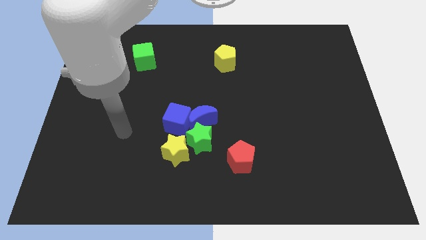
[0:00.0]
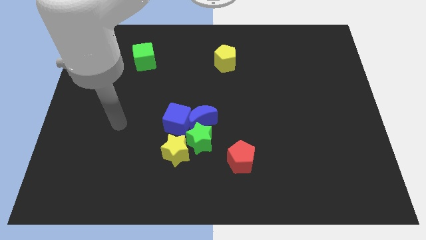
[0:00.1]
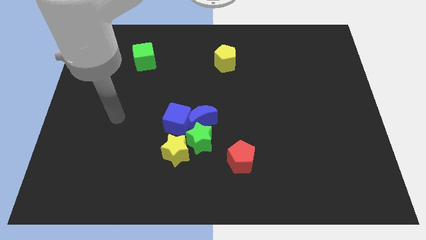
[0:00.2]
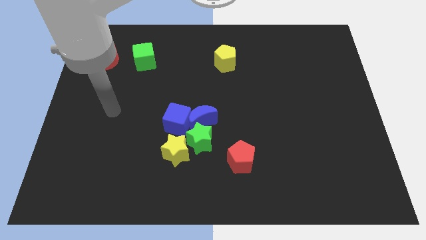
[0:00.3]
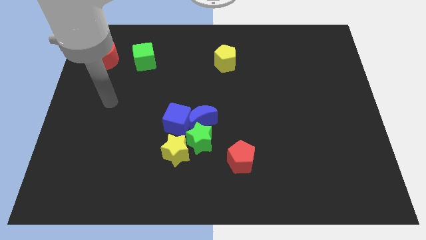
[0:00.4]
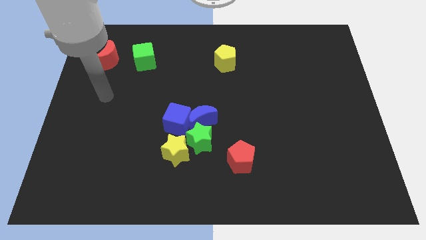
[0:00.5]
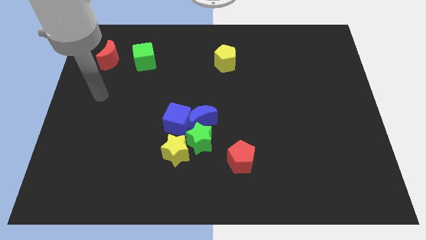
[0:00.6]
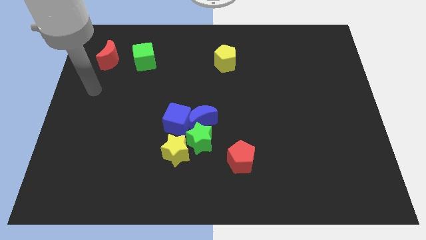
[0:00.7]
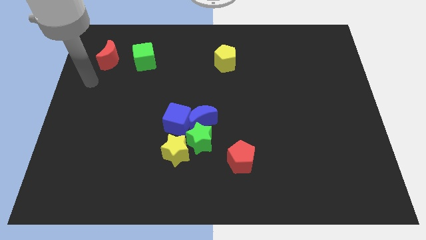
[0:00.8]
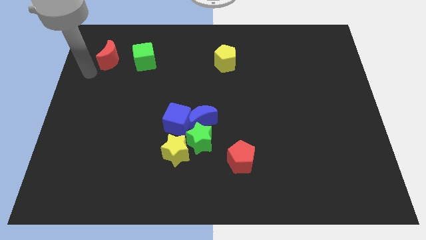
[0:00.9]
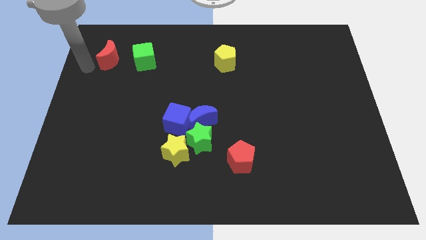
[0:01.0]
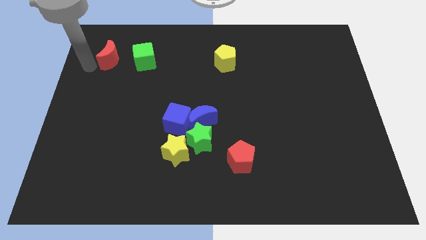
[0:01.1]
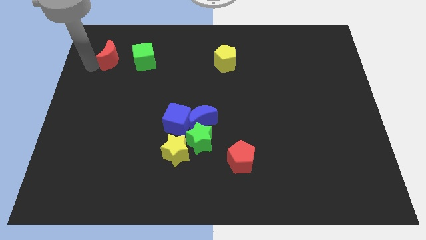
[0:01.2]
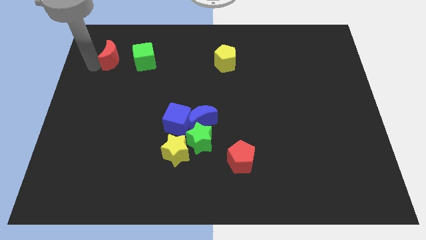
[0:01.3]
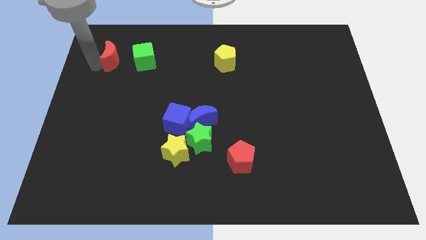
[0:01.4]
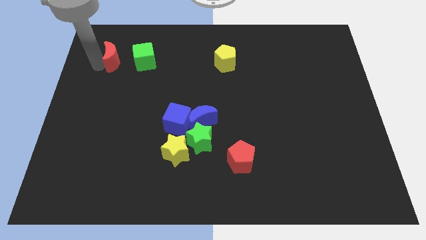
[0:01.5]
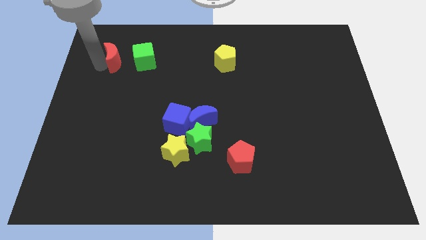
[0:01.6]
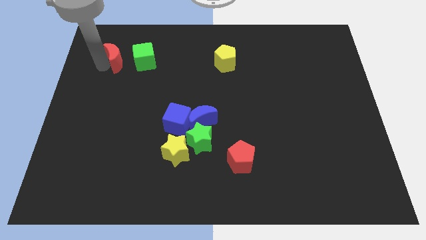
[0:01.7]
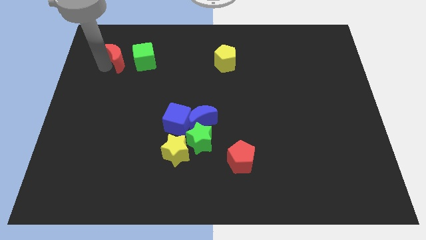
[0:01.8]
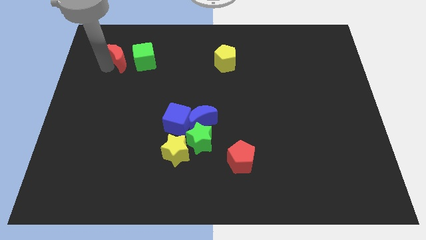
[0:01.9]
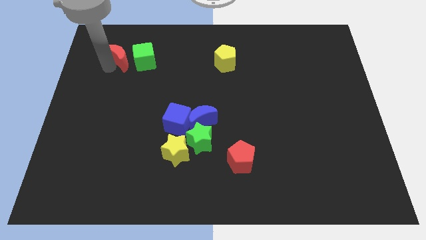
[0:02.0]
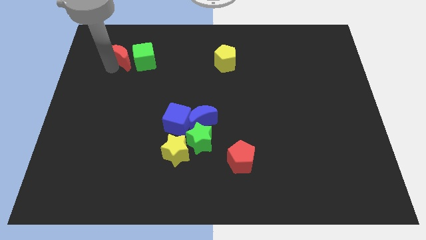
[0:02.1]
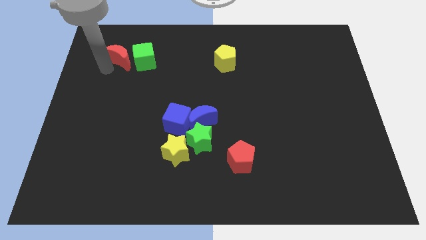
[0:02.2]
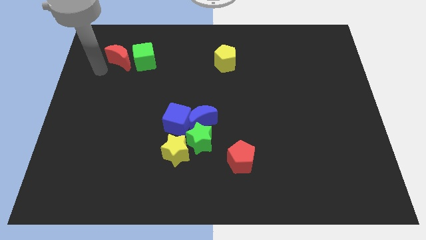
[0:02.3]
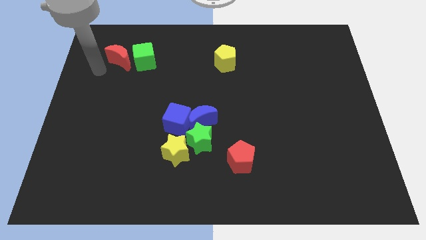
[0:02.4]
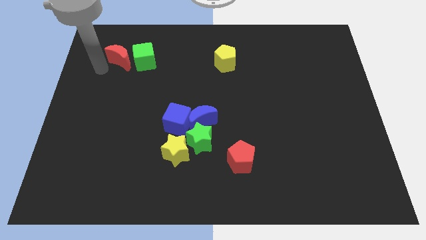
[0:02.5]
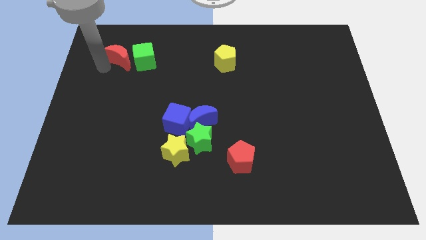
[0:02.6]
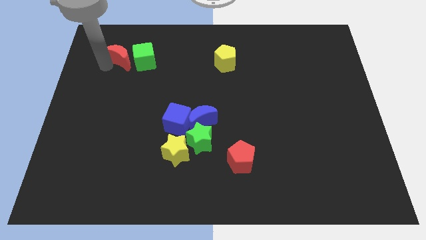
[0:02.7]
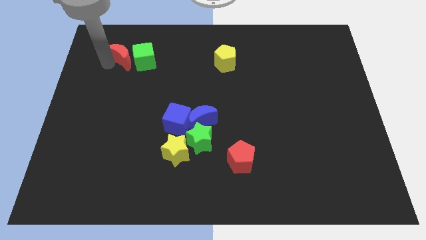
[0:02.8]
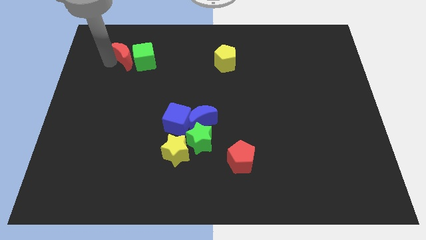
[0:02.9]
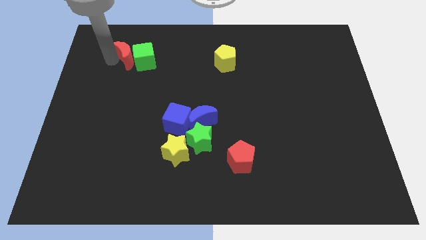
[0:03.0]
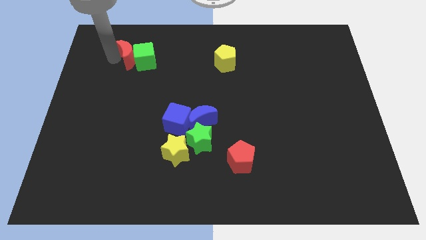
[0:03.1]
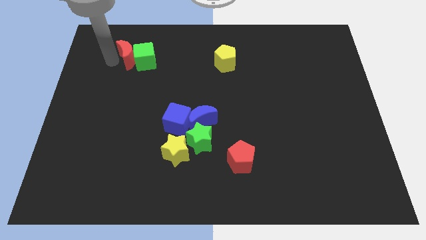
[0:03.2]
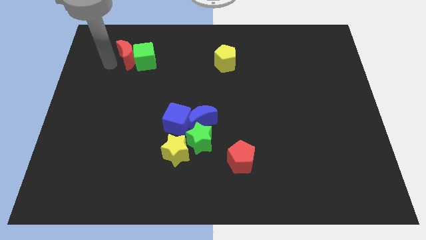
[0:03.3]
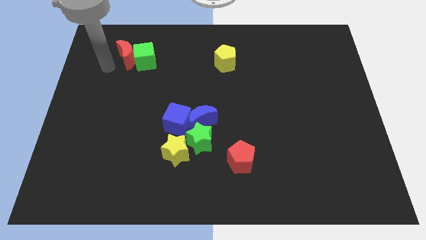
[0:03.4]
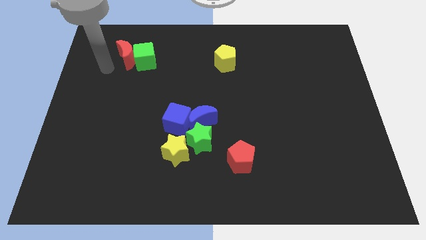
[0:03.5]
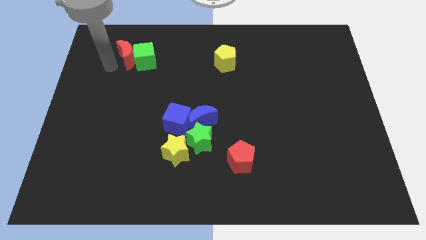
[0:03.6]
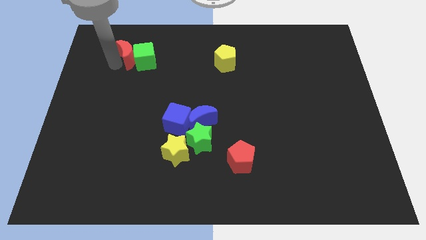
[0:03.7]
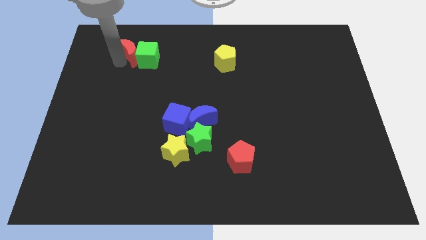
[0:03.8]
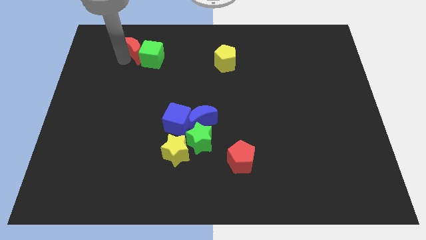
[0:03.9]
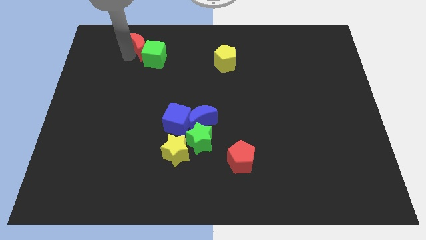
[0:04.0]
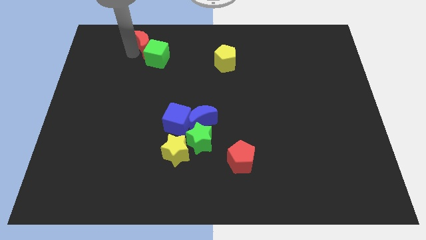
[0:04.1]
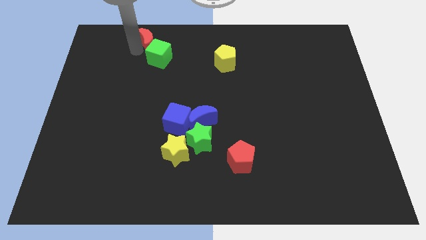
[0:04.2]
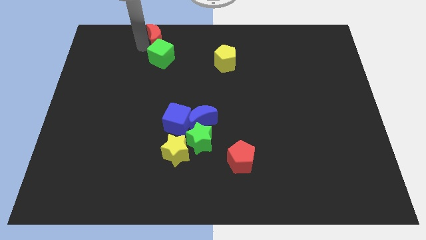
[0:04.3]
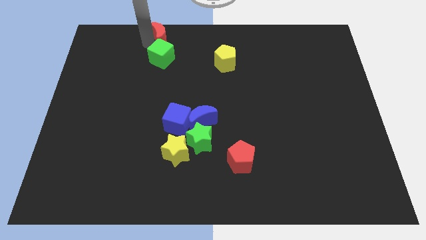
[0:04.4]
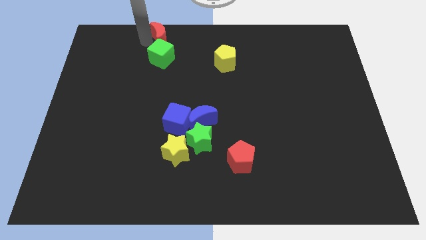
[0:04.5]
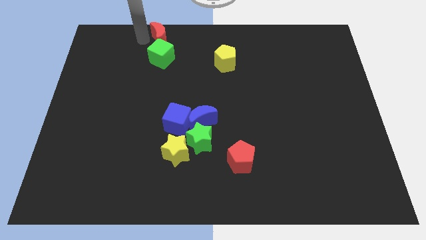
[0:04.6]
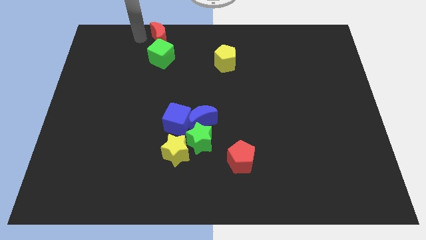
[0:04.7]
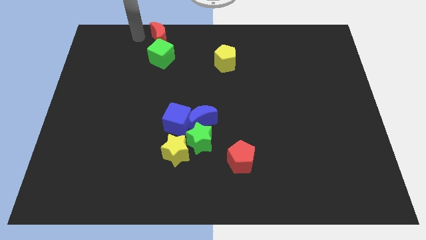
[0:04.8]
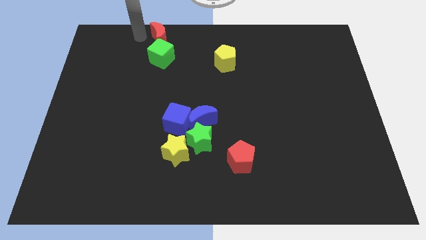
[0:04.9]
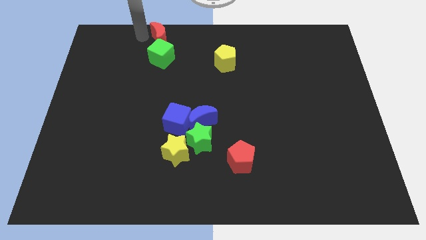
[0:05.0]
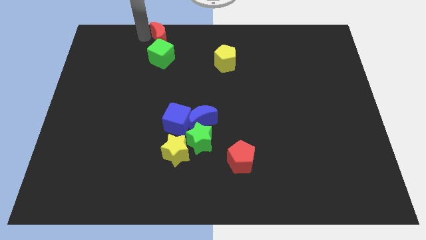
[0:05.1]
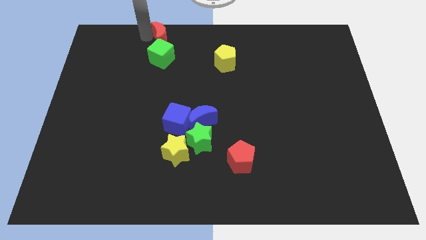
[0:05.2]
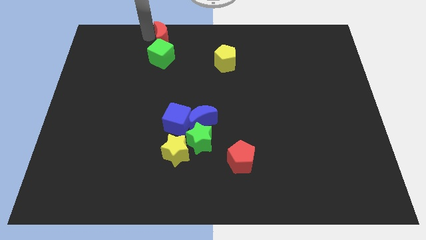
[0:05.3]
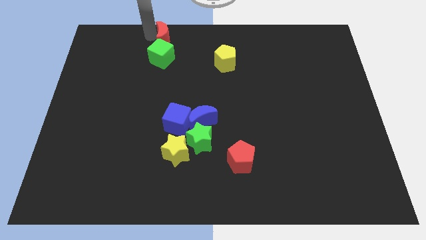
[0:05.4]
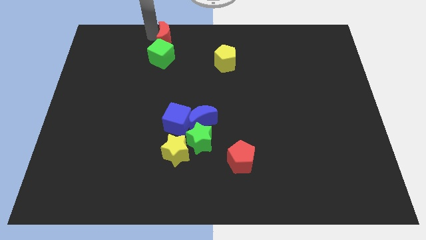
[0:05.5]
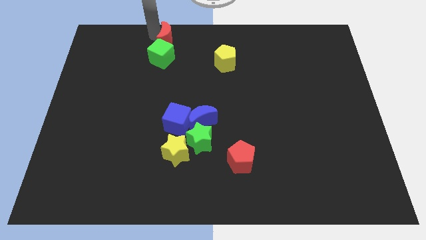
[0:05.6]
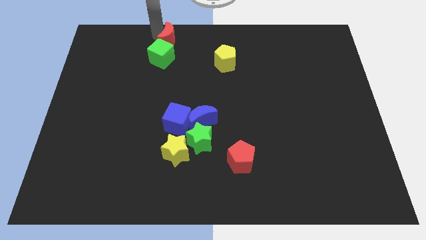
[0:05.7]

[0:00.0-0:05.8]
move the red moon to the top

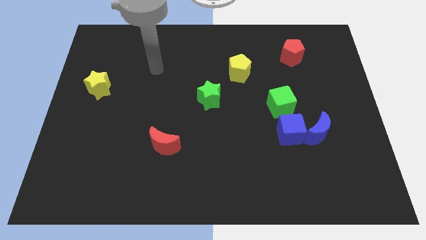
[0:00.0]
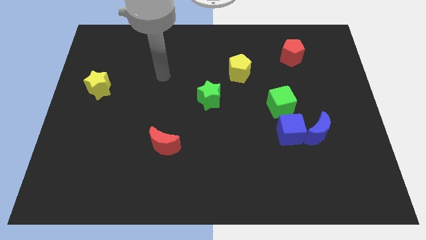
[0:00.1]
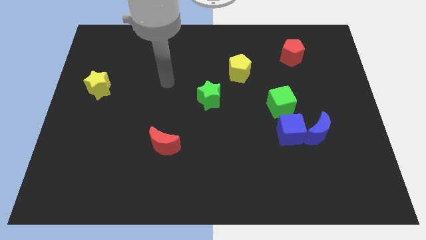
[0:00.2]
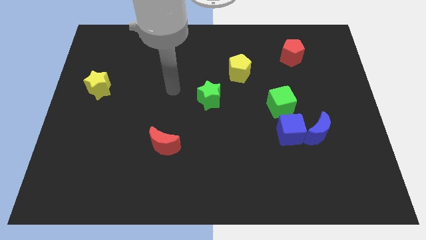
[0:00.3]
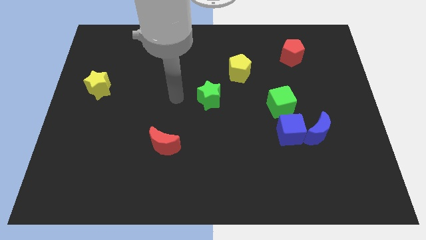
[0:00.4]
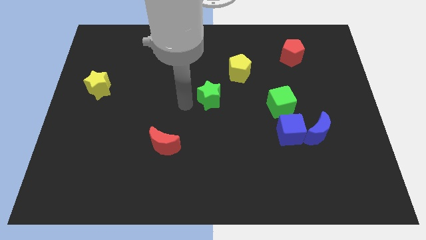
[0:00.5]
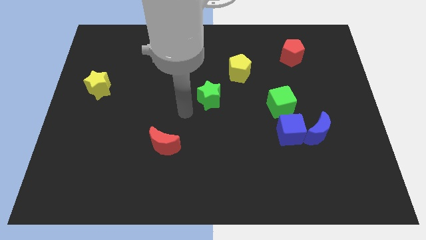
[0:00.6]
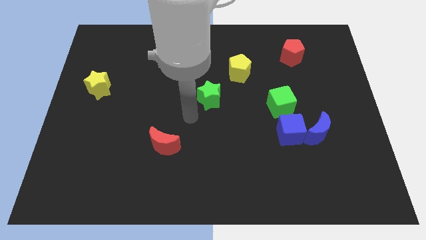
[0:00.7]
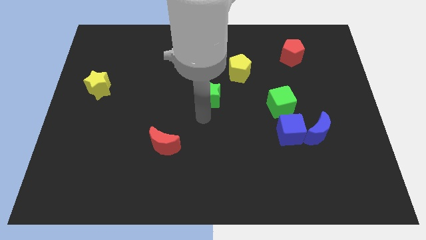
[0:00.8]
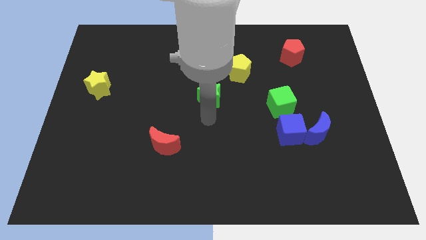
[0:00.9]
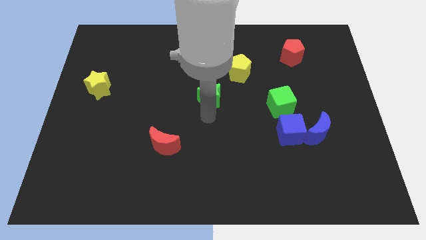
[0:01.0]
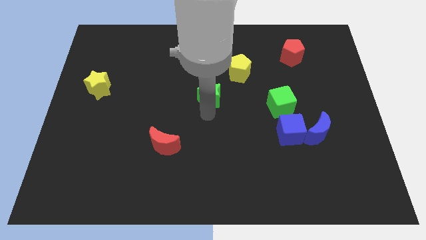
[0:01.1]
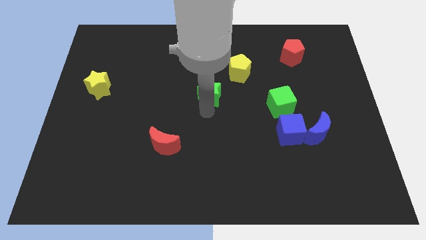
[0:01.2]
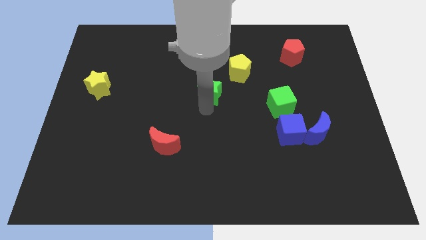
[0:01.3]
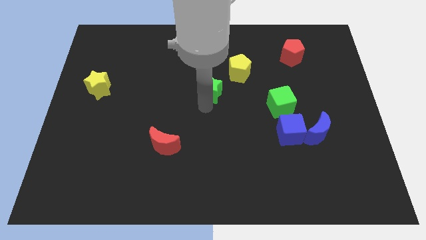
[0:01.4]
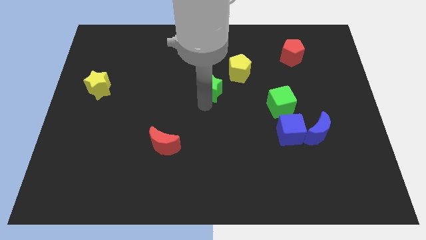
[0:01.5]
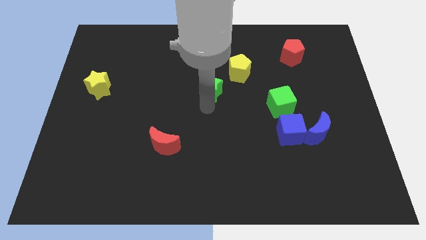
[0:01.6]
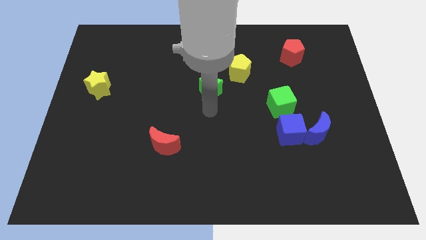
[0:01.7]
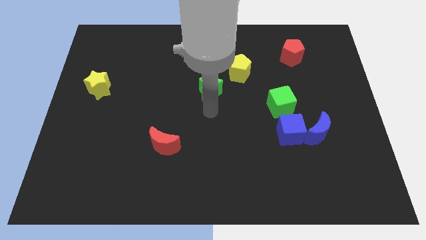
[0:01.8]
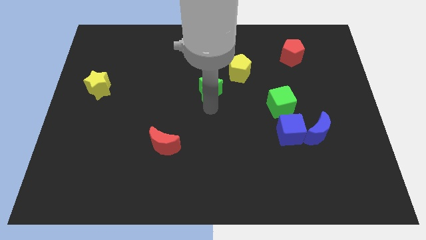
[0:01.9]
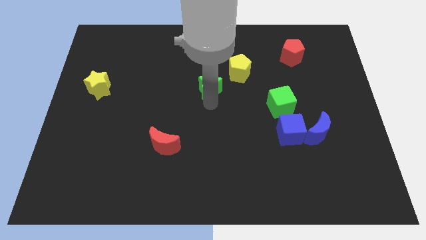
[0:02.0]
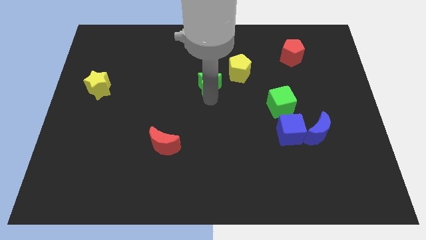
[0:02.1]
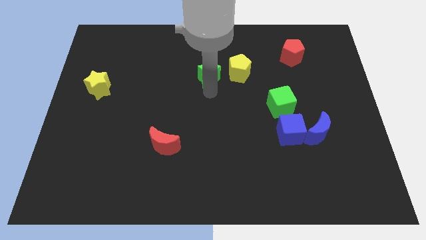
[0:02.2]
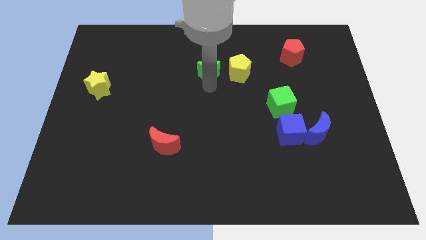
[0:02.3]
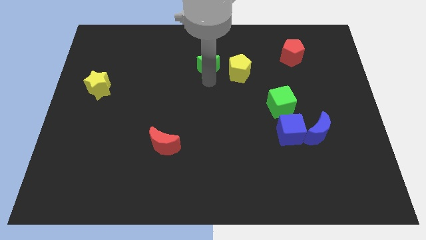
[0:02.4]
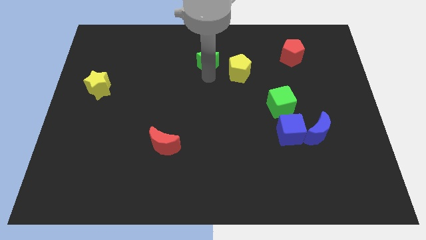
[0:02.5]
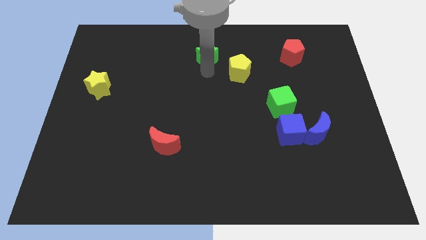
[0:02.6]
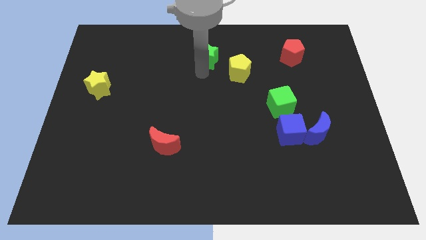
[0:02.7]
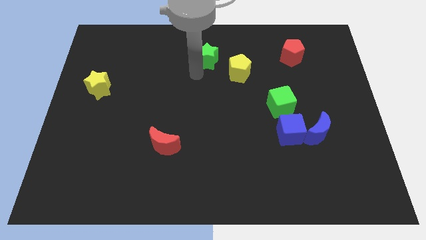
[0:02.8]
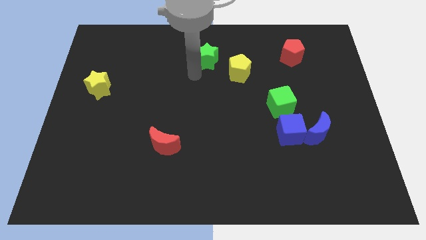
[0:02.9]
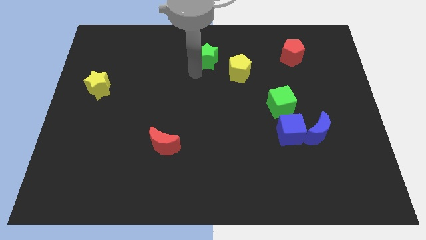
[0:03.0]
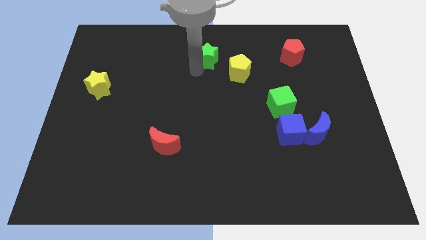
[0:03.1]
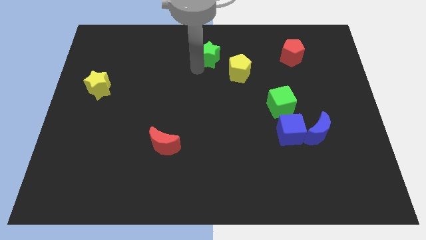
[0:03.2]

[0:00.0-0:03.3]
put the green star to the top side
